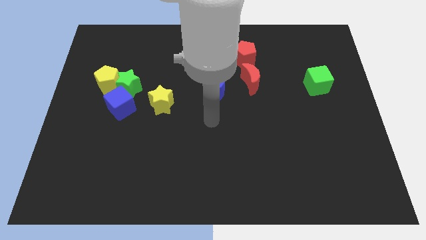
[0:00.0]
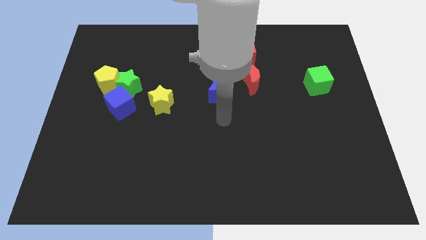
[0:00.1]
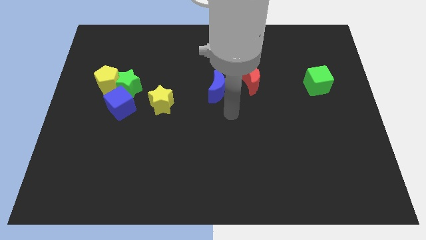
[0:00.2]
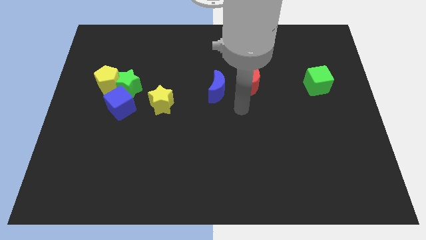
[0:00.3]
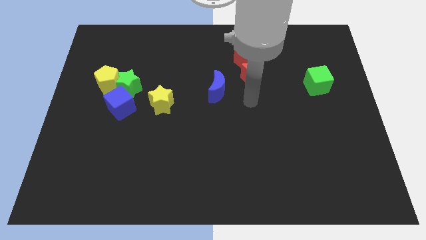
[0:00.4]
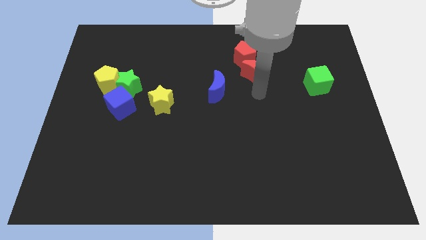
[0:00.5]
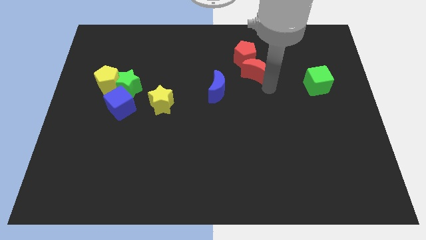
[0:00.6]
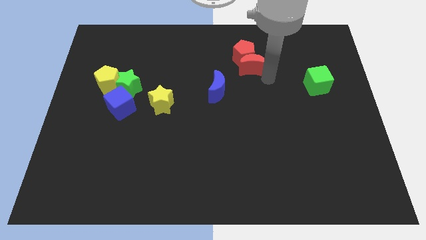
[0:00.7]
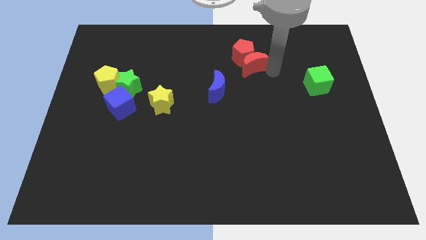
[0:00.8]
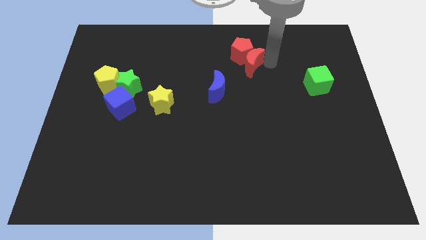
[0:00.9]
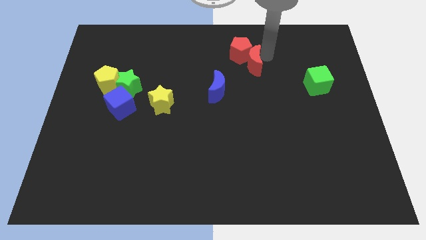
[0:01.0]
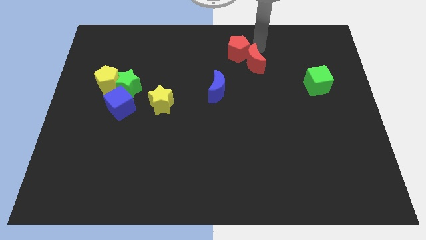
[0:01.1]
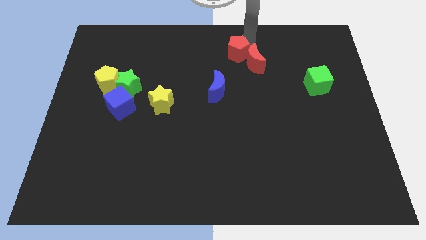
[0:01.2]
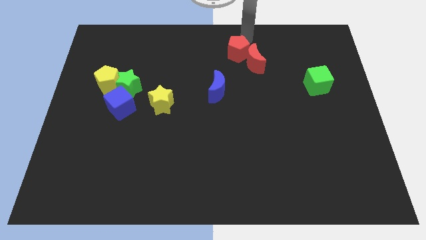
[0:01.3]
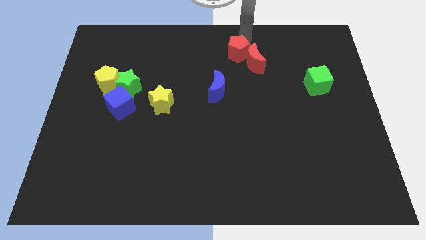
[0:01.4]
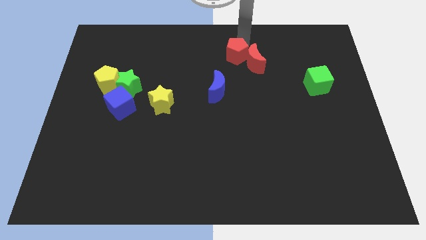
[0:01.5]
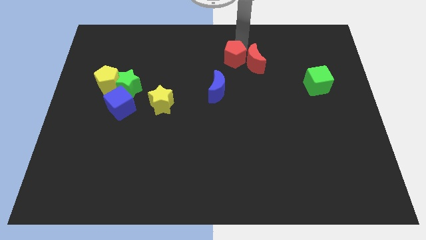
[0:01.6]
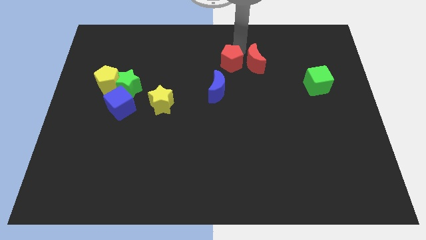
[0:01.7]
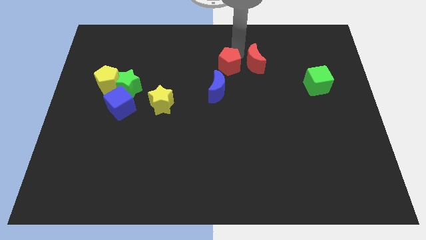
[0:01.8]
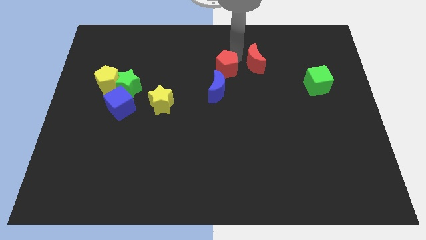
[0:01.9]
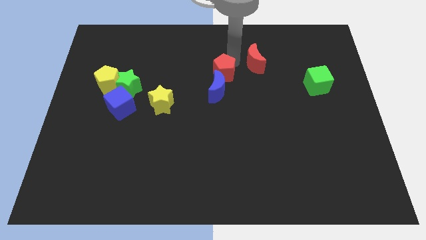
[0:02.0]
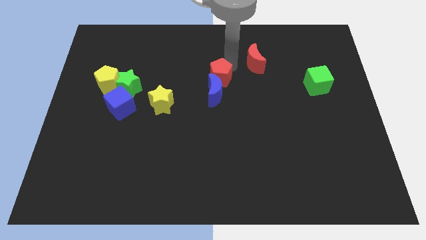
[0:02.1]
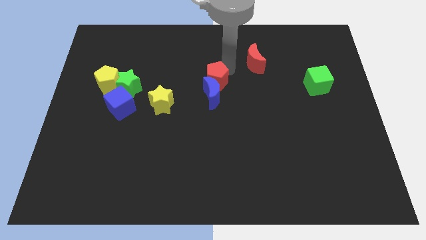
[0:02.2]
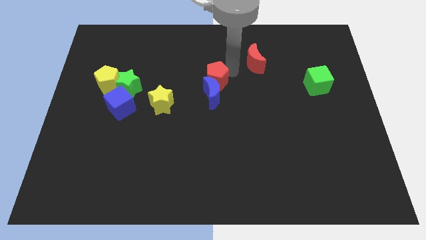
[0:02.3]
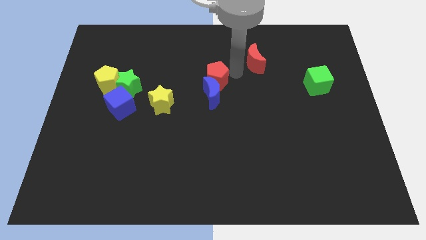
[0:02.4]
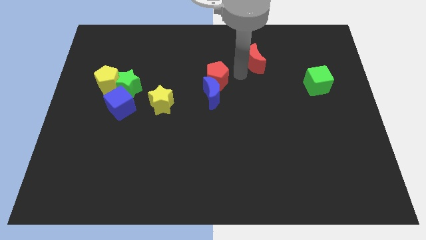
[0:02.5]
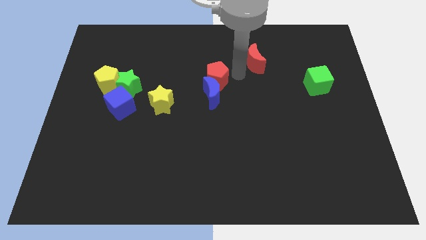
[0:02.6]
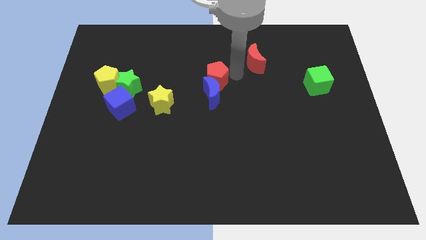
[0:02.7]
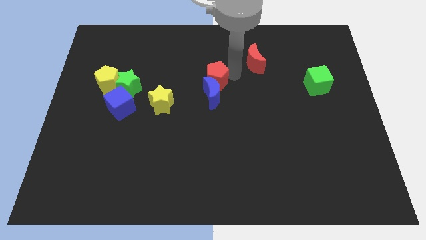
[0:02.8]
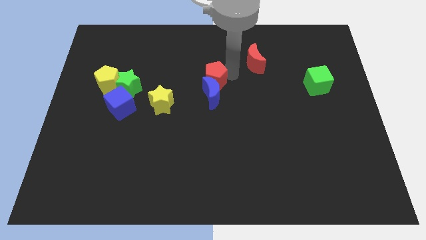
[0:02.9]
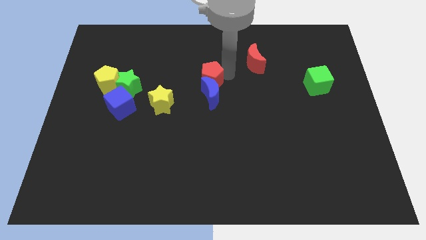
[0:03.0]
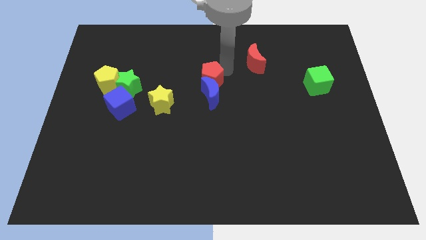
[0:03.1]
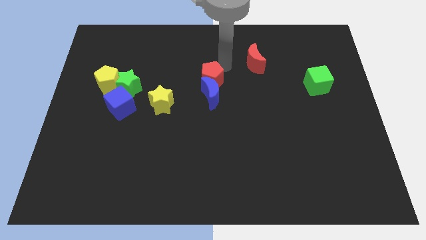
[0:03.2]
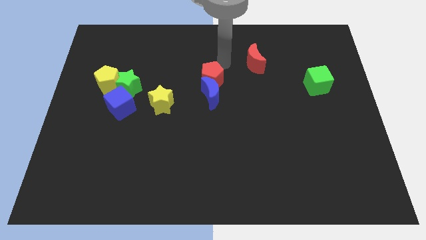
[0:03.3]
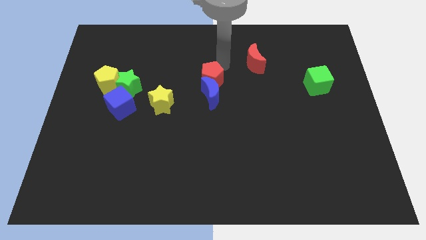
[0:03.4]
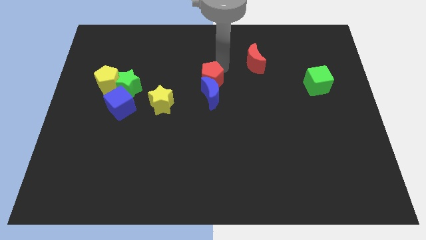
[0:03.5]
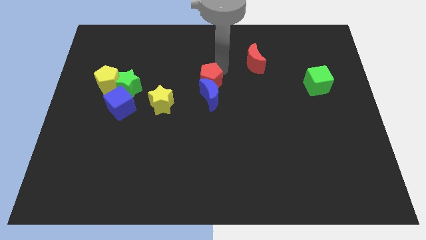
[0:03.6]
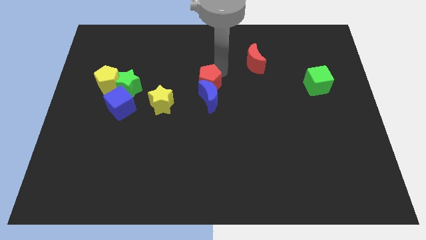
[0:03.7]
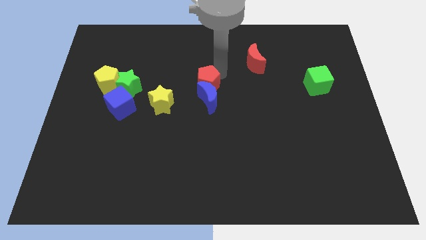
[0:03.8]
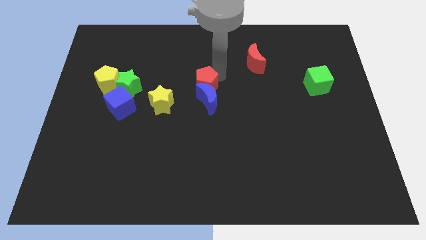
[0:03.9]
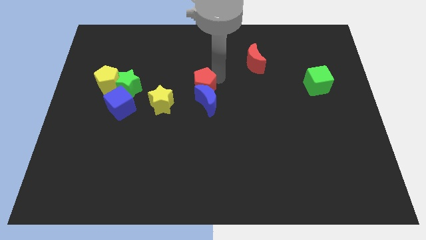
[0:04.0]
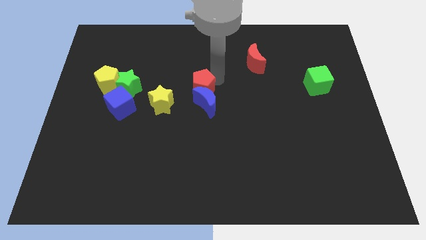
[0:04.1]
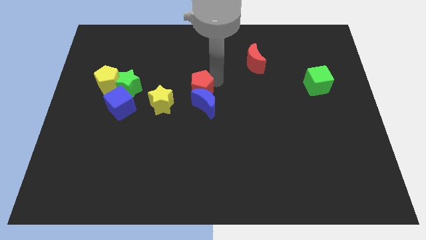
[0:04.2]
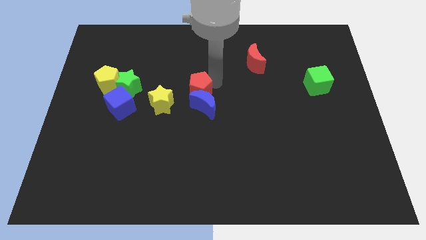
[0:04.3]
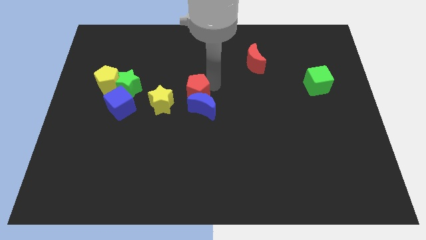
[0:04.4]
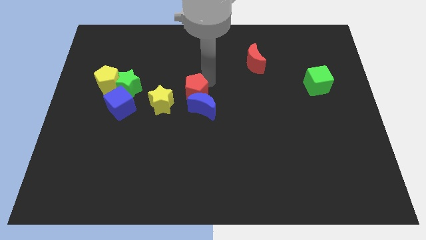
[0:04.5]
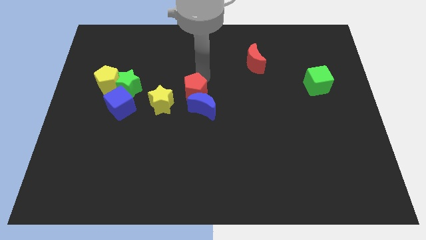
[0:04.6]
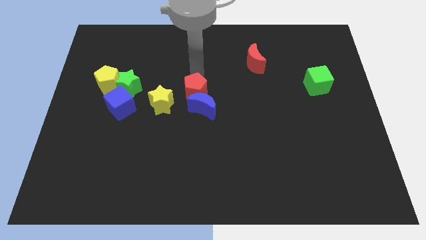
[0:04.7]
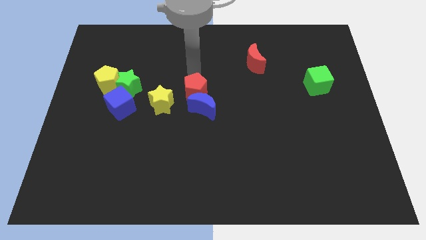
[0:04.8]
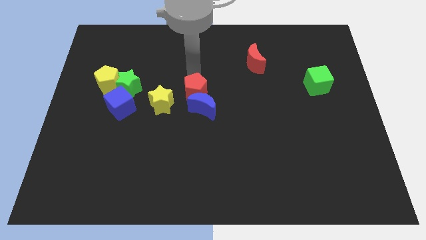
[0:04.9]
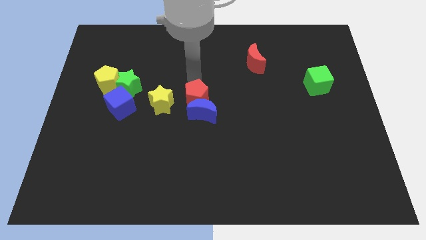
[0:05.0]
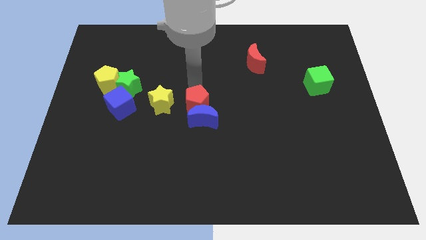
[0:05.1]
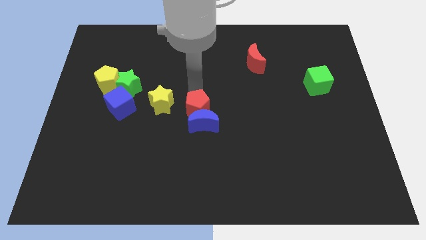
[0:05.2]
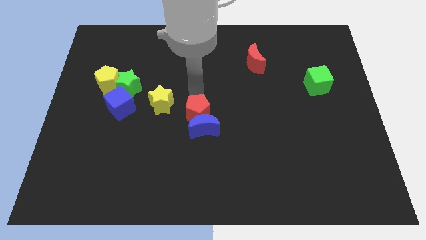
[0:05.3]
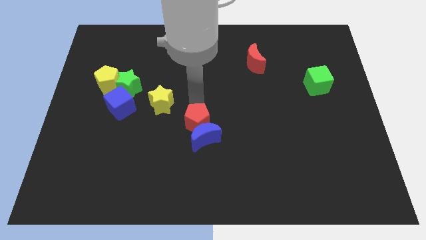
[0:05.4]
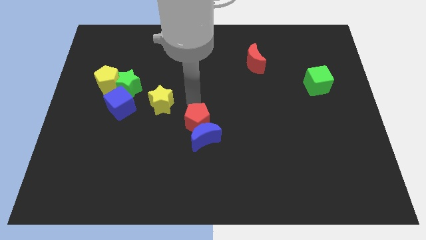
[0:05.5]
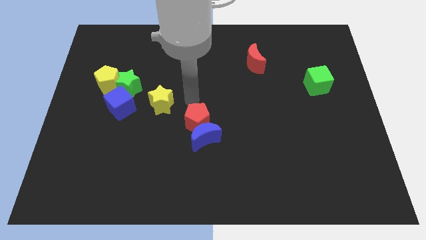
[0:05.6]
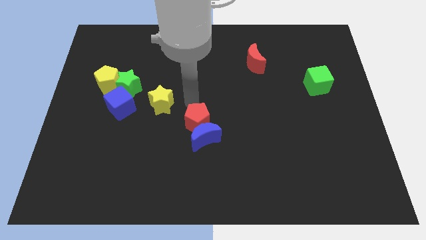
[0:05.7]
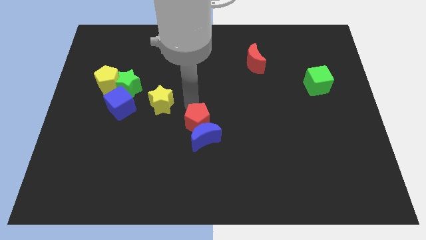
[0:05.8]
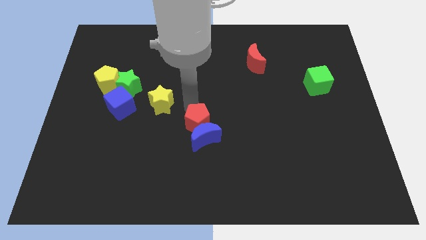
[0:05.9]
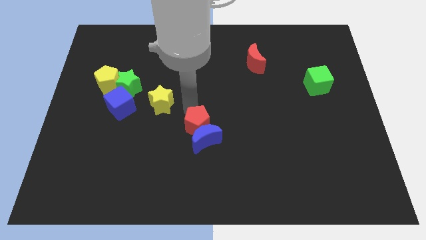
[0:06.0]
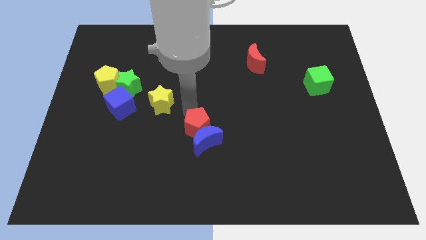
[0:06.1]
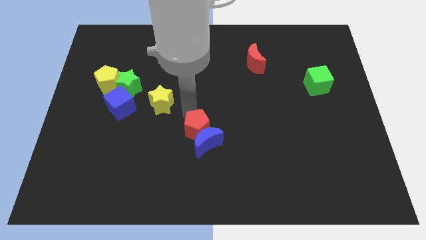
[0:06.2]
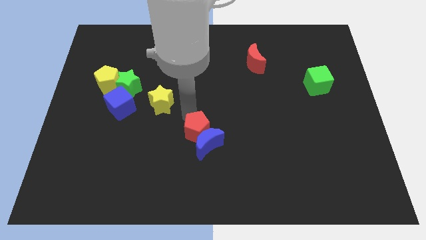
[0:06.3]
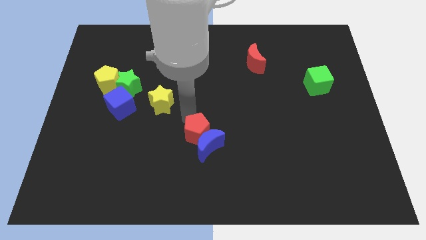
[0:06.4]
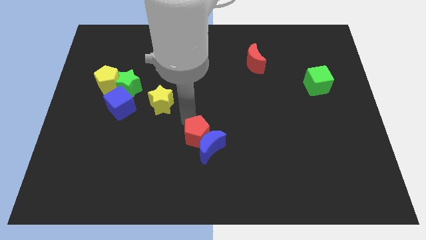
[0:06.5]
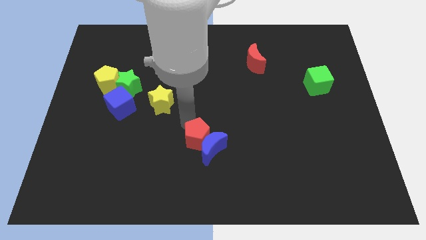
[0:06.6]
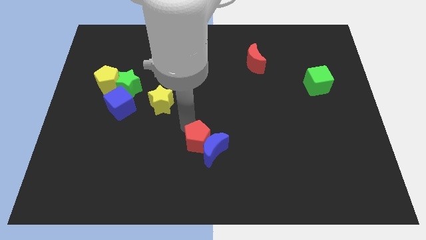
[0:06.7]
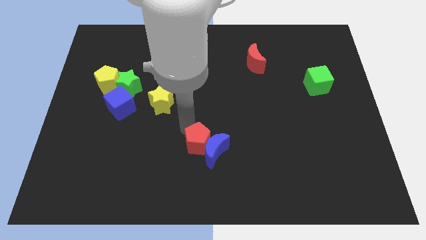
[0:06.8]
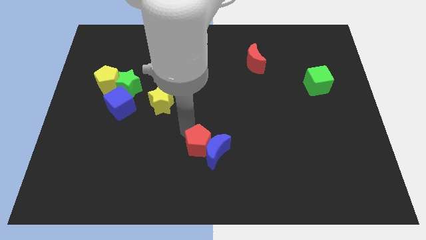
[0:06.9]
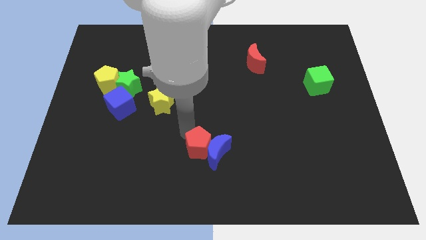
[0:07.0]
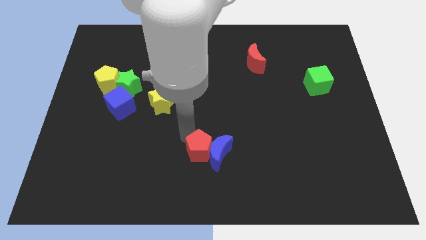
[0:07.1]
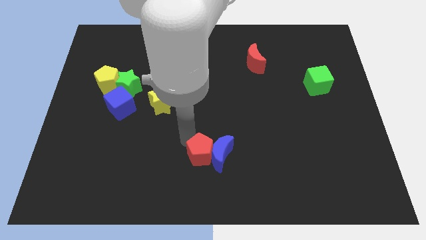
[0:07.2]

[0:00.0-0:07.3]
move the red pentagon to the bottom
